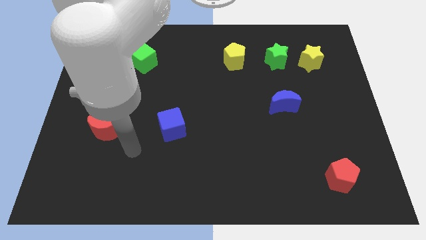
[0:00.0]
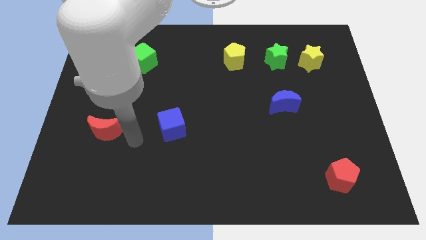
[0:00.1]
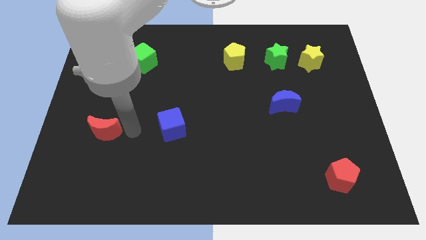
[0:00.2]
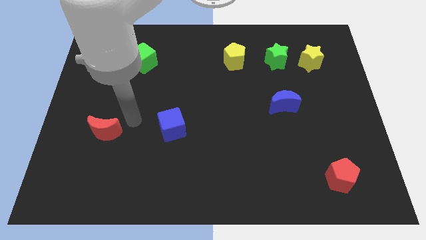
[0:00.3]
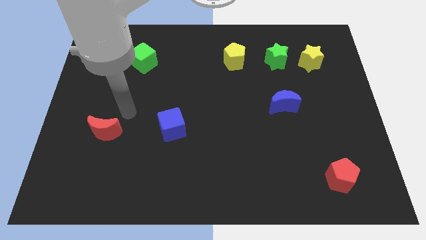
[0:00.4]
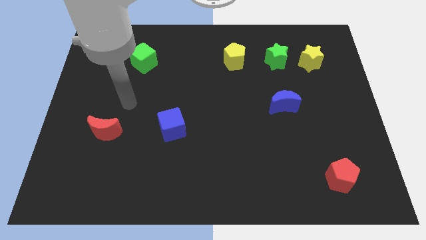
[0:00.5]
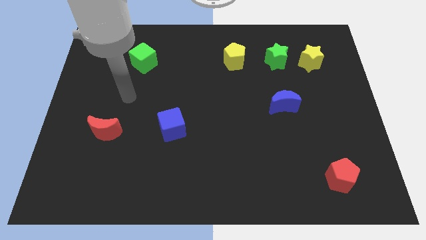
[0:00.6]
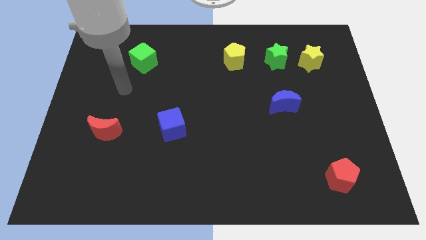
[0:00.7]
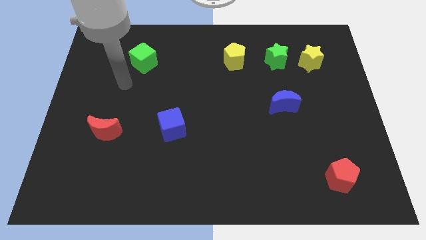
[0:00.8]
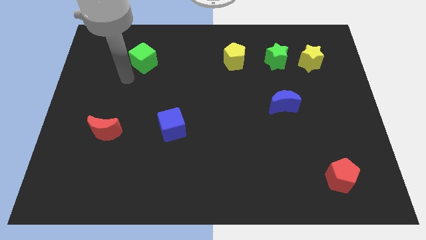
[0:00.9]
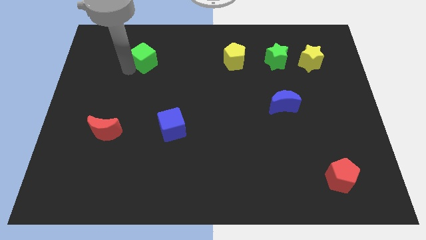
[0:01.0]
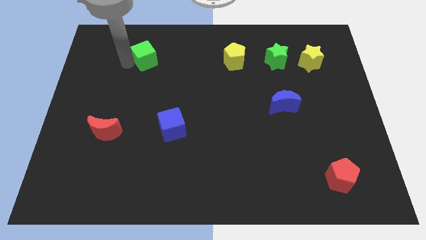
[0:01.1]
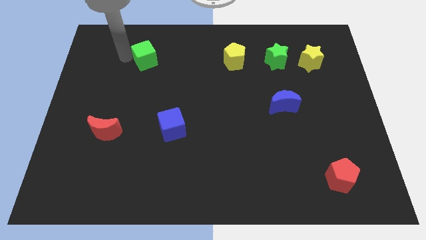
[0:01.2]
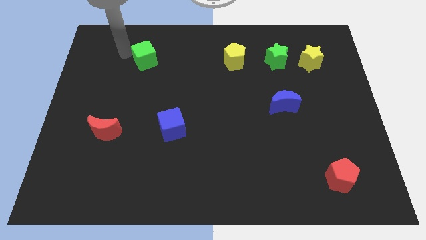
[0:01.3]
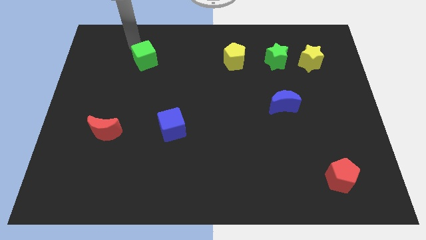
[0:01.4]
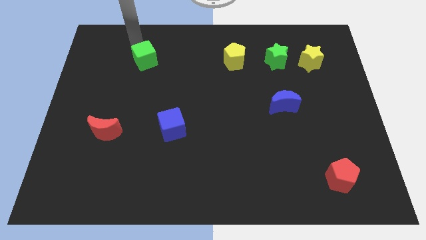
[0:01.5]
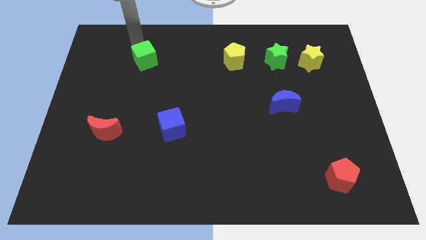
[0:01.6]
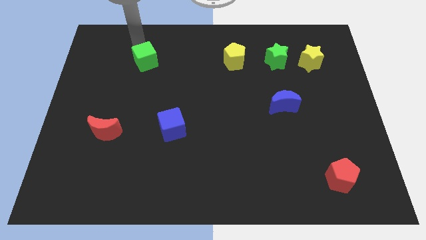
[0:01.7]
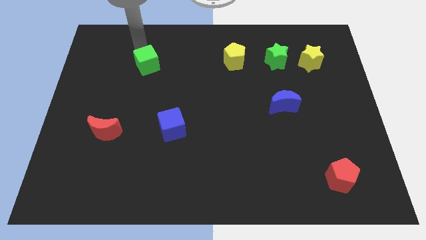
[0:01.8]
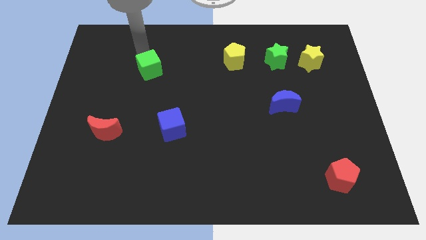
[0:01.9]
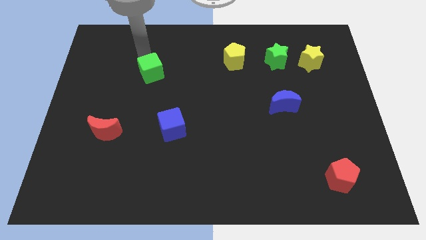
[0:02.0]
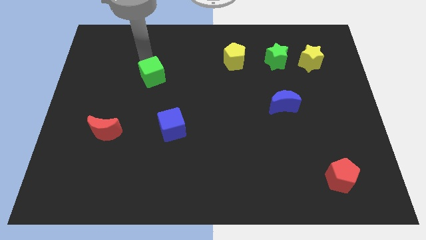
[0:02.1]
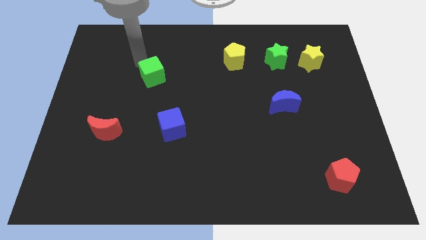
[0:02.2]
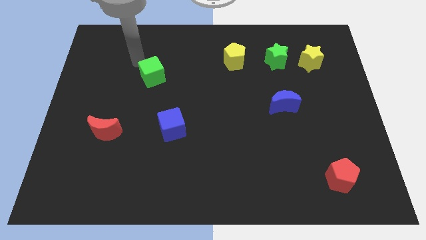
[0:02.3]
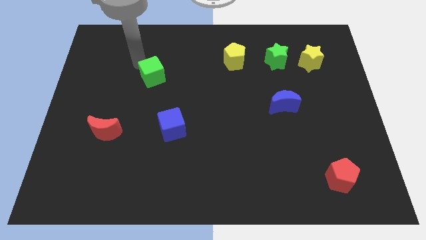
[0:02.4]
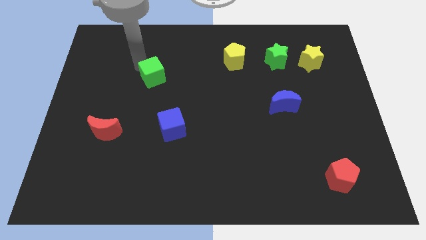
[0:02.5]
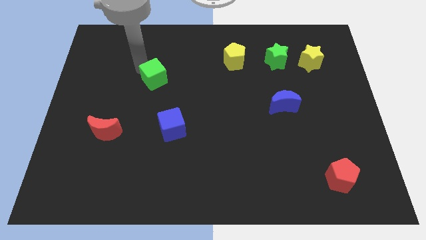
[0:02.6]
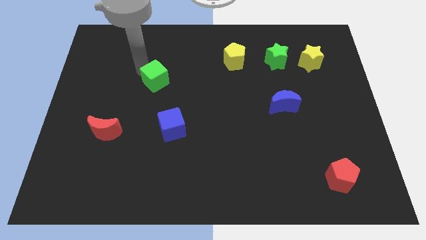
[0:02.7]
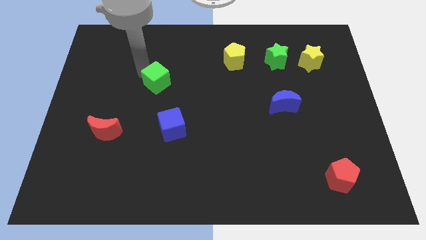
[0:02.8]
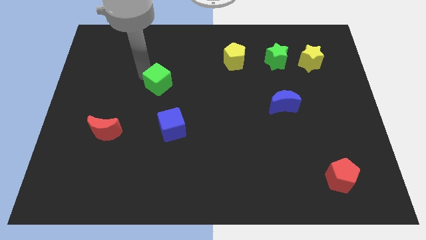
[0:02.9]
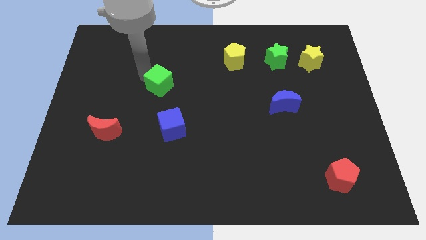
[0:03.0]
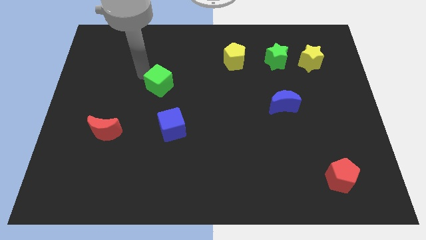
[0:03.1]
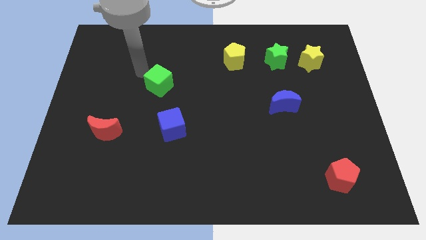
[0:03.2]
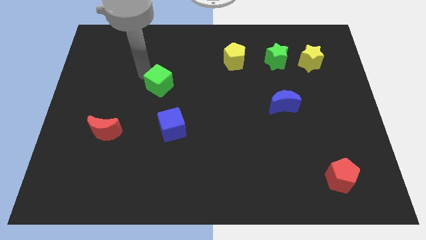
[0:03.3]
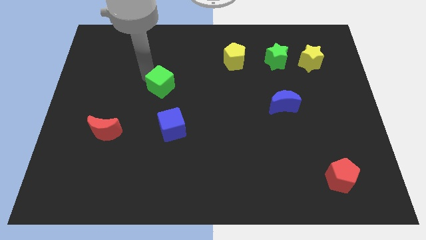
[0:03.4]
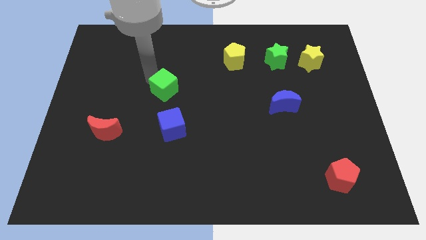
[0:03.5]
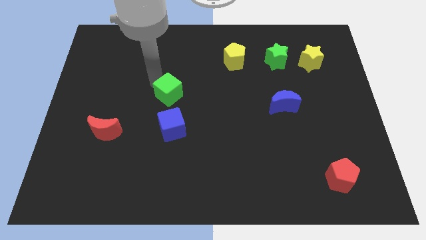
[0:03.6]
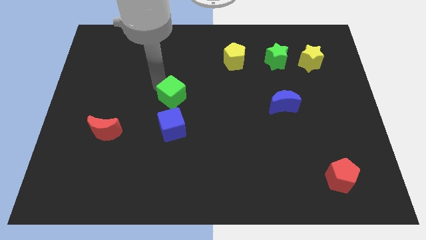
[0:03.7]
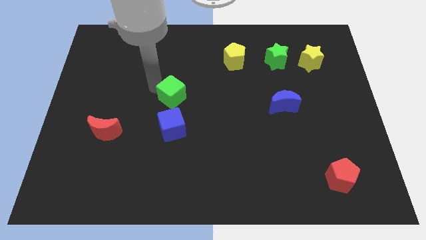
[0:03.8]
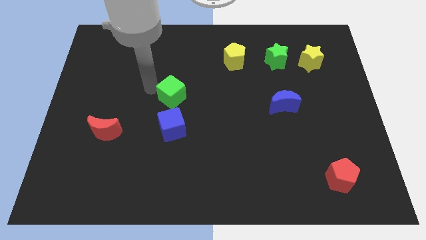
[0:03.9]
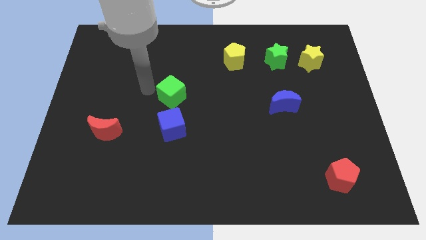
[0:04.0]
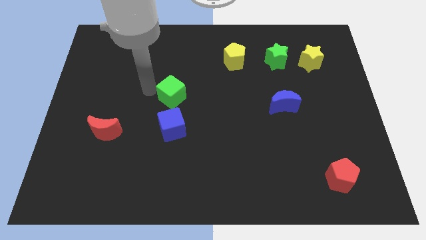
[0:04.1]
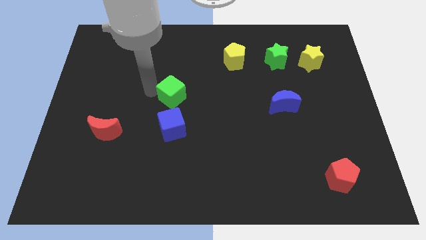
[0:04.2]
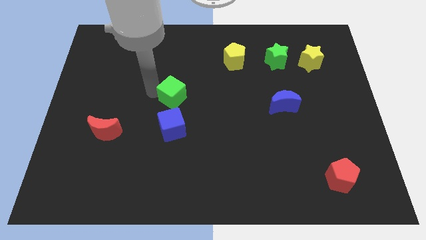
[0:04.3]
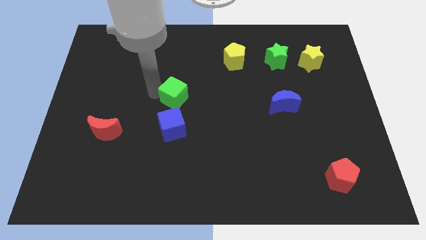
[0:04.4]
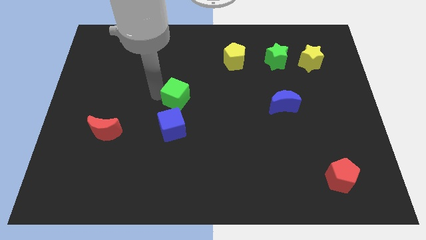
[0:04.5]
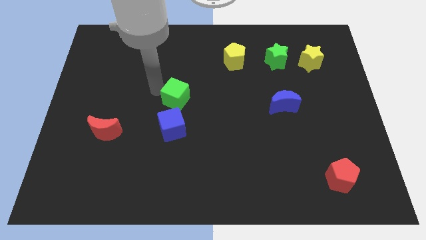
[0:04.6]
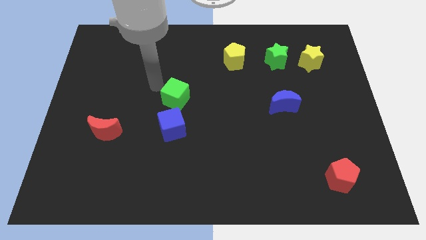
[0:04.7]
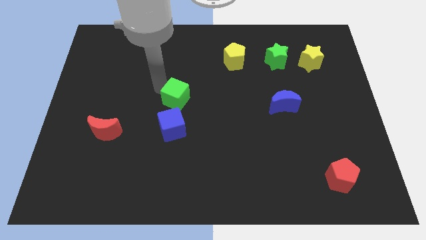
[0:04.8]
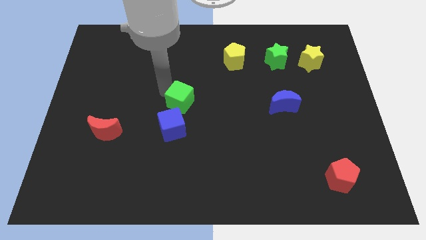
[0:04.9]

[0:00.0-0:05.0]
move the green cube diagonally up and to the right of the blue cube

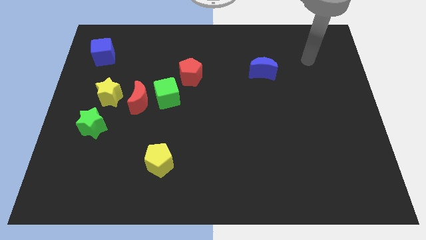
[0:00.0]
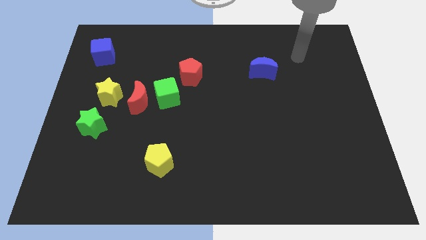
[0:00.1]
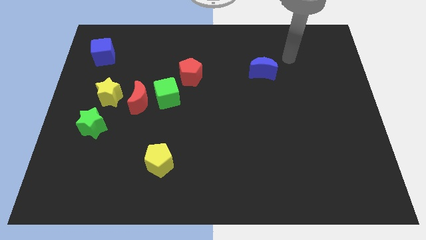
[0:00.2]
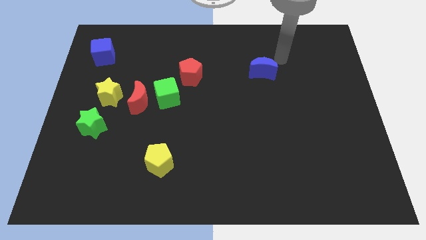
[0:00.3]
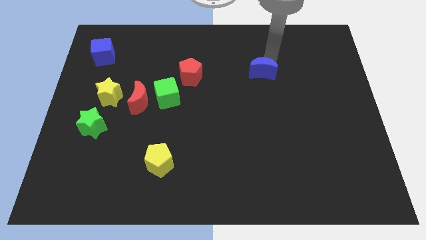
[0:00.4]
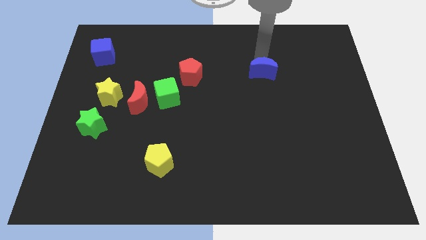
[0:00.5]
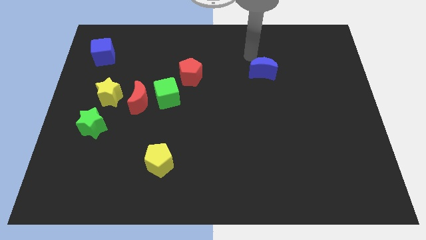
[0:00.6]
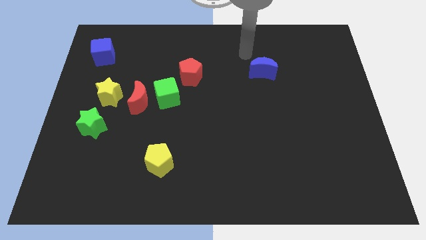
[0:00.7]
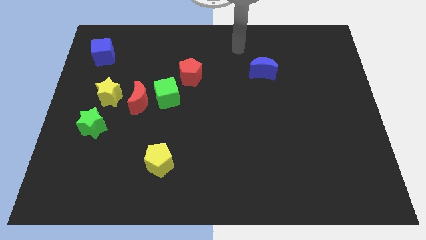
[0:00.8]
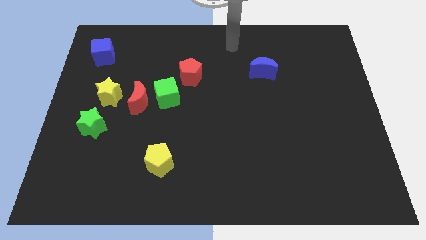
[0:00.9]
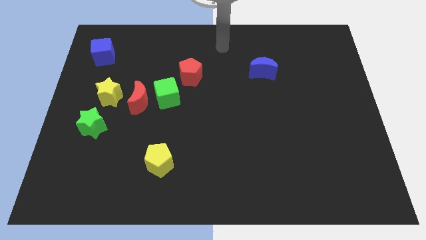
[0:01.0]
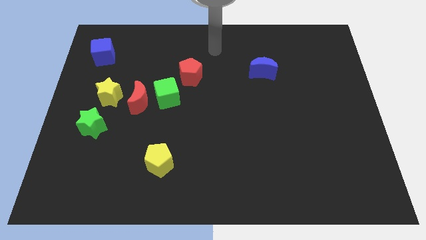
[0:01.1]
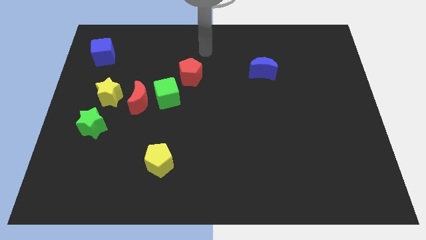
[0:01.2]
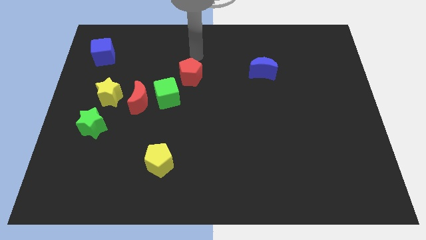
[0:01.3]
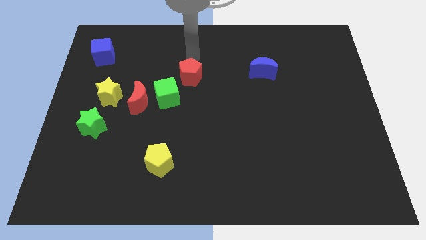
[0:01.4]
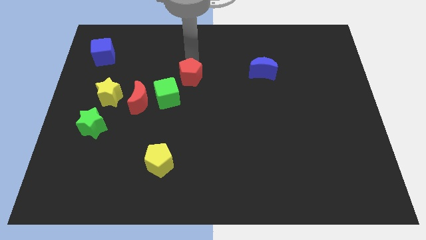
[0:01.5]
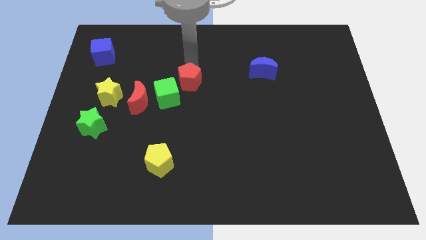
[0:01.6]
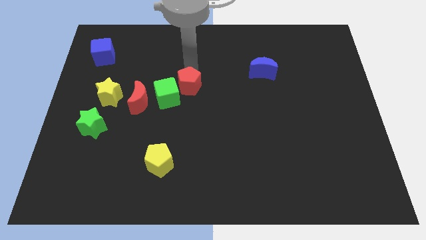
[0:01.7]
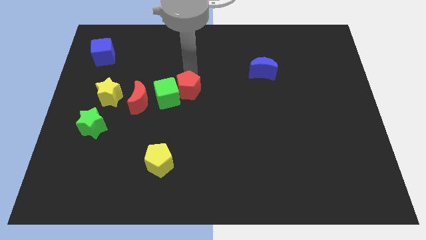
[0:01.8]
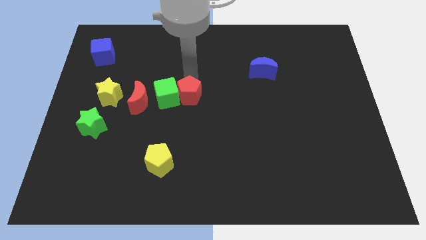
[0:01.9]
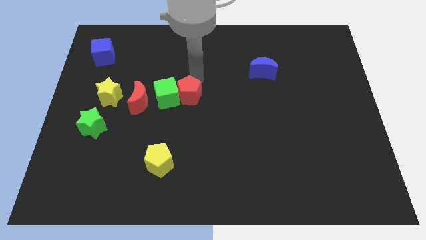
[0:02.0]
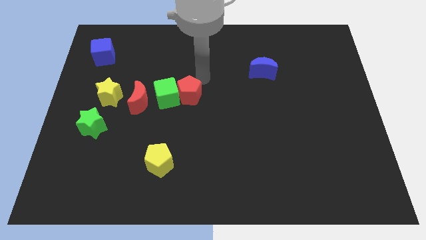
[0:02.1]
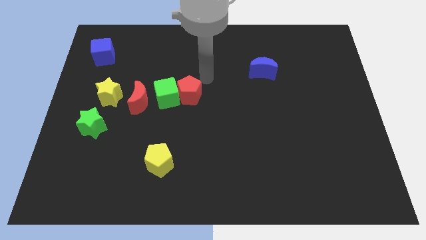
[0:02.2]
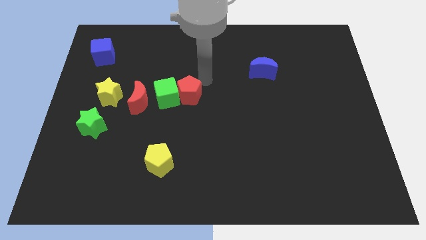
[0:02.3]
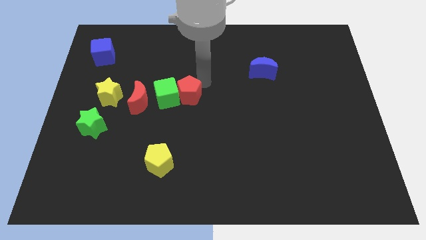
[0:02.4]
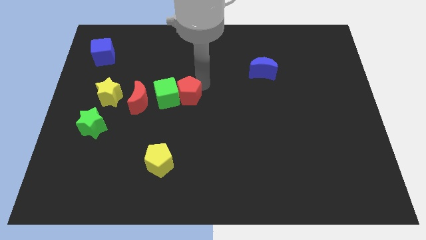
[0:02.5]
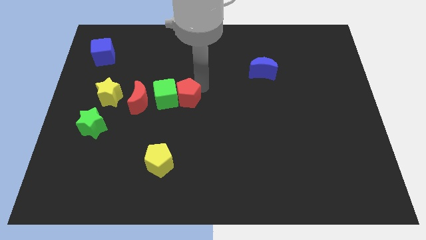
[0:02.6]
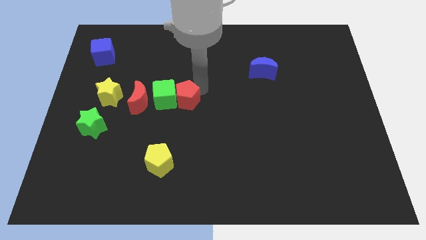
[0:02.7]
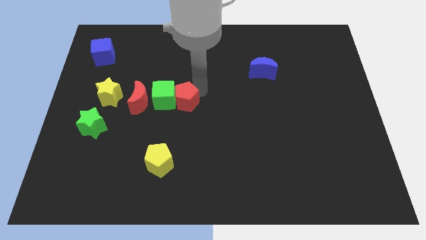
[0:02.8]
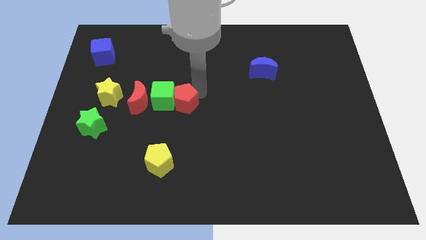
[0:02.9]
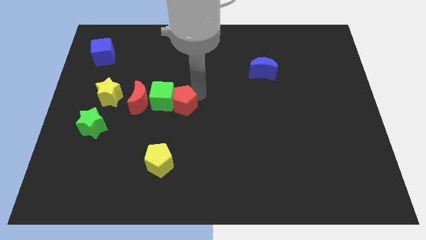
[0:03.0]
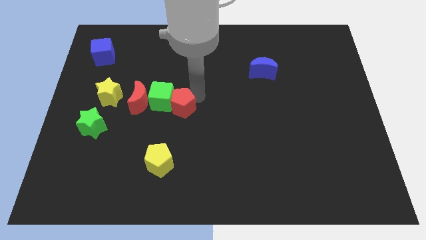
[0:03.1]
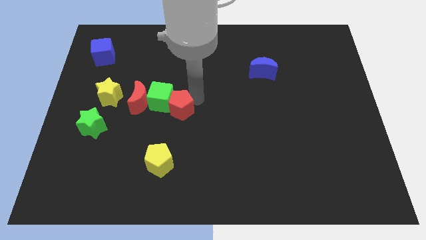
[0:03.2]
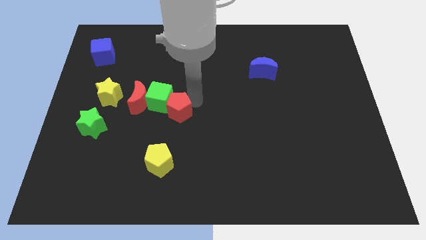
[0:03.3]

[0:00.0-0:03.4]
move the red pentagon to the bottom right side of the red moon
